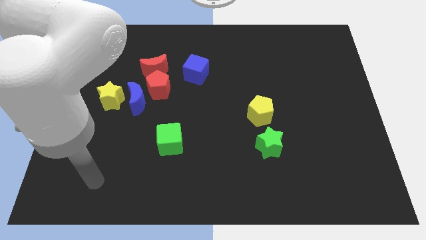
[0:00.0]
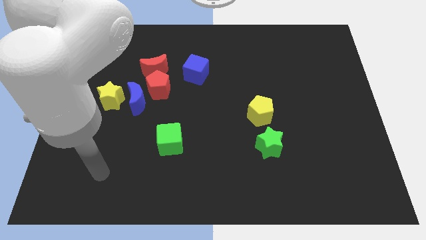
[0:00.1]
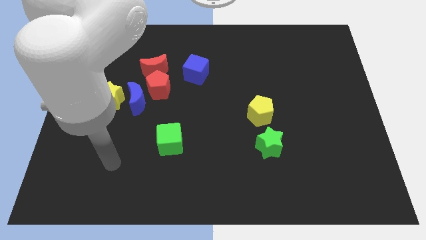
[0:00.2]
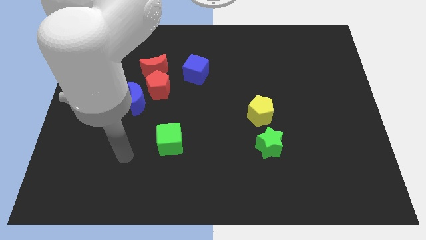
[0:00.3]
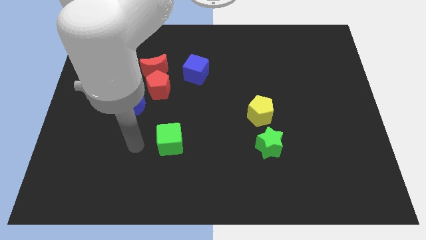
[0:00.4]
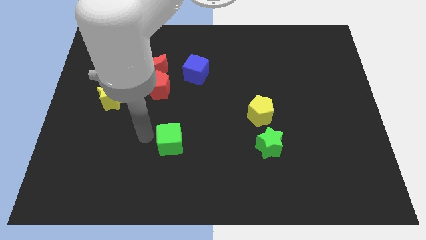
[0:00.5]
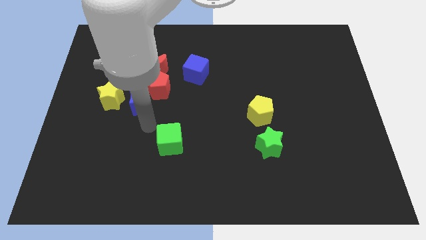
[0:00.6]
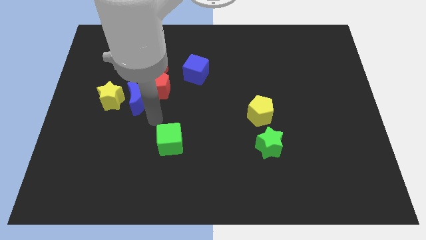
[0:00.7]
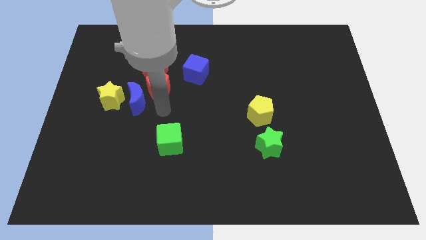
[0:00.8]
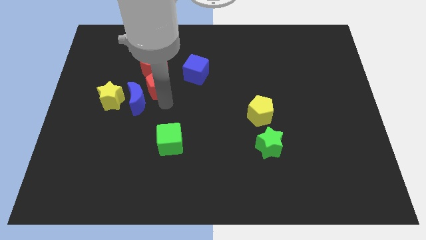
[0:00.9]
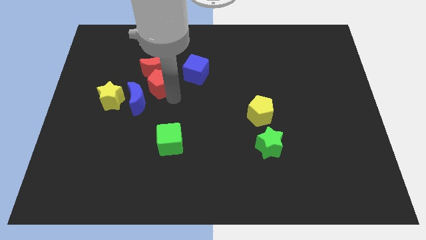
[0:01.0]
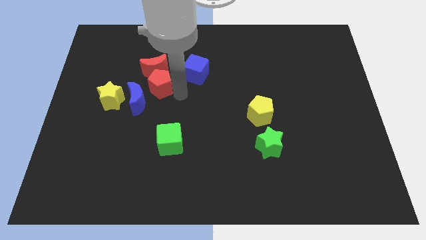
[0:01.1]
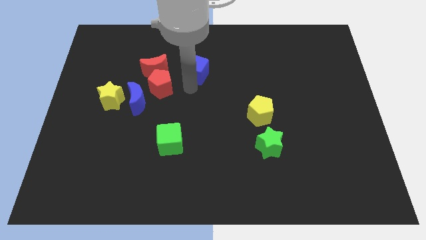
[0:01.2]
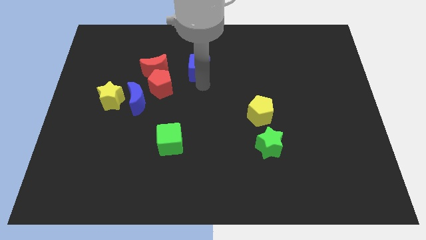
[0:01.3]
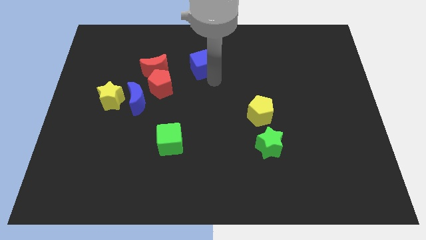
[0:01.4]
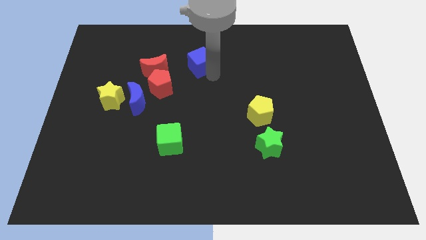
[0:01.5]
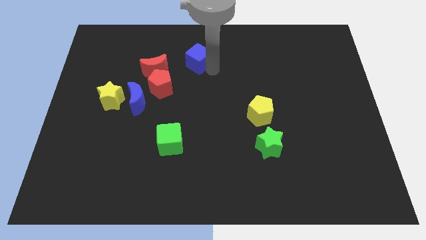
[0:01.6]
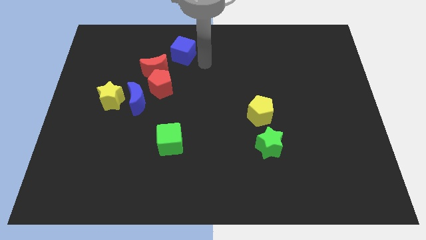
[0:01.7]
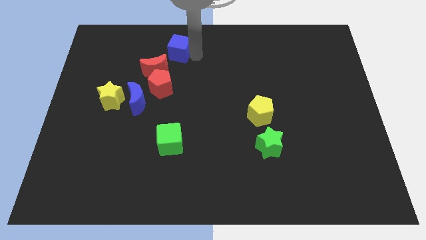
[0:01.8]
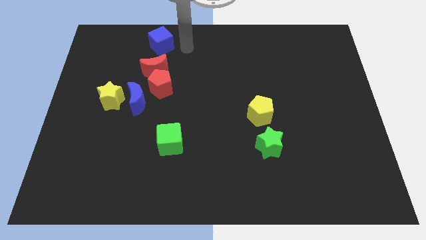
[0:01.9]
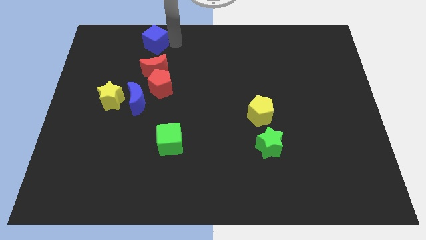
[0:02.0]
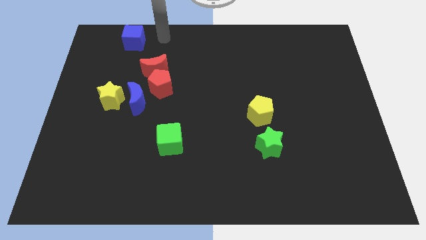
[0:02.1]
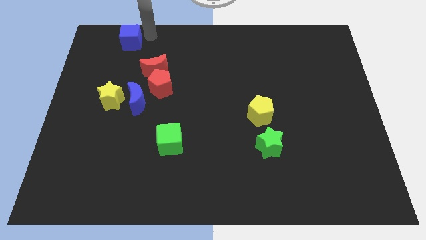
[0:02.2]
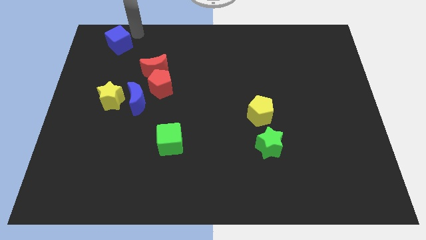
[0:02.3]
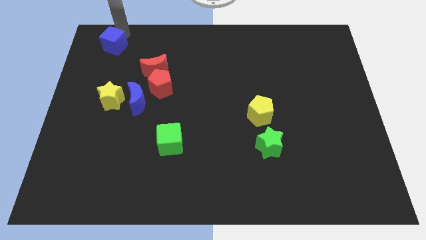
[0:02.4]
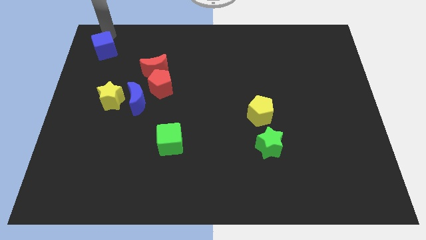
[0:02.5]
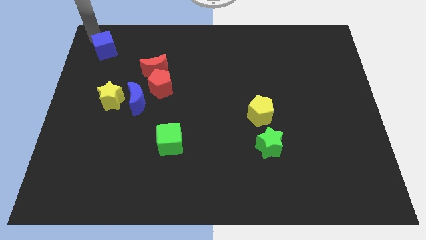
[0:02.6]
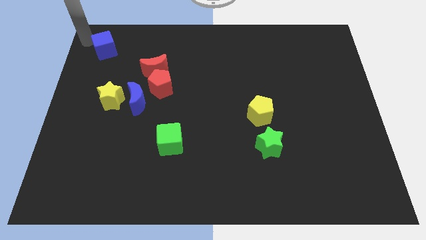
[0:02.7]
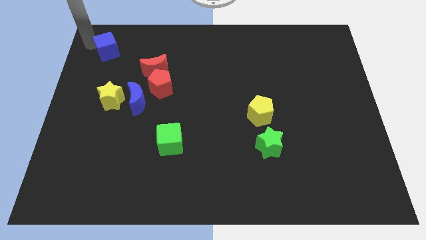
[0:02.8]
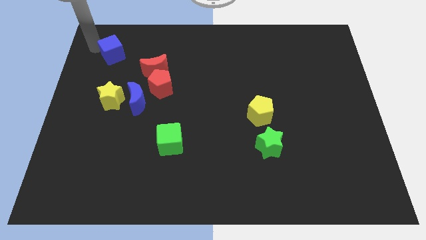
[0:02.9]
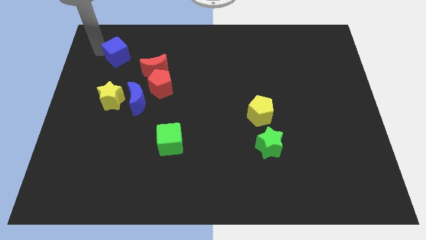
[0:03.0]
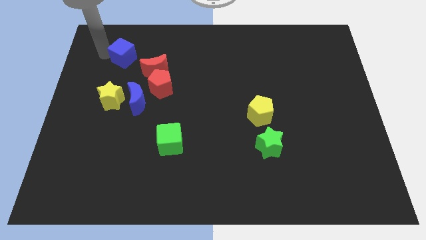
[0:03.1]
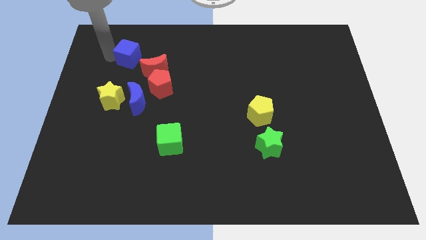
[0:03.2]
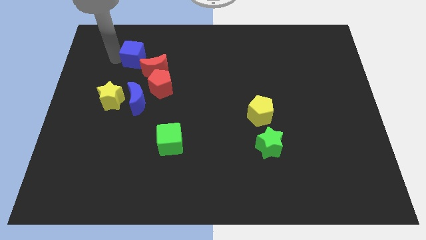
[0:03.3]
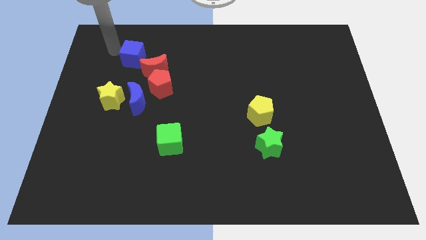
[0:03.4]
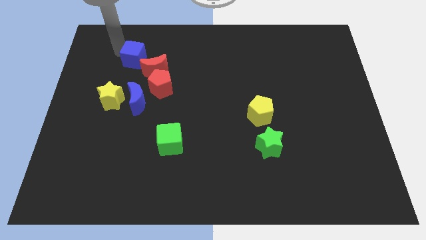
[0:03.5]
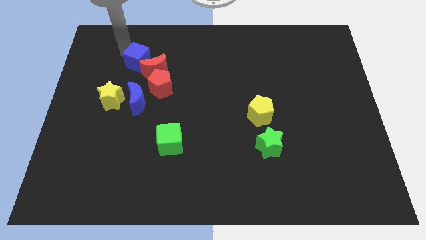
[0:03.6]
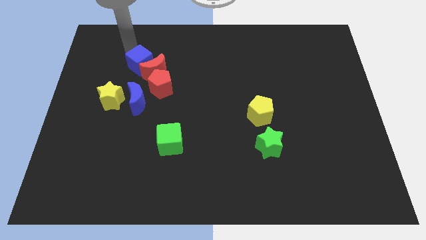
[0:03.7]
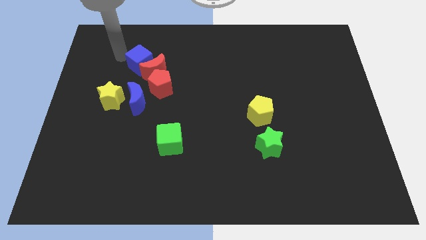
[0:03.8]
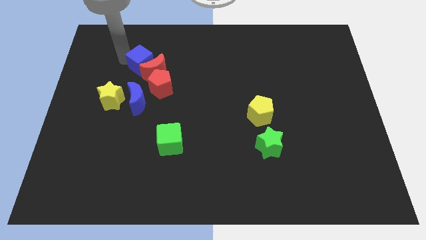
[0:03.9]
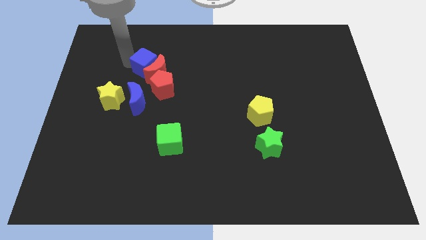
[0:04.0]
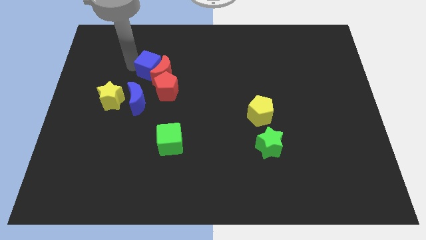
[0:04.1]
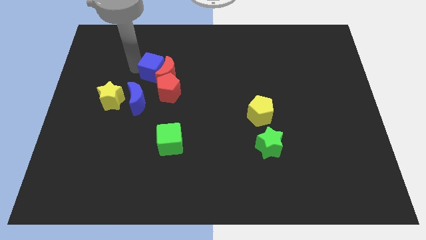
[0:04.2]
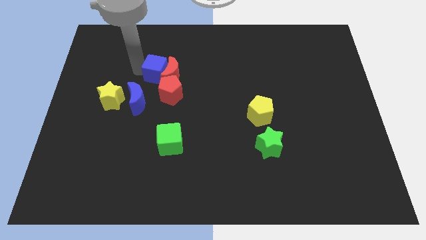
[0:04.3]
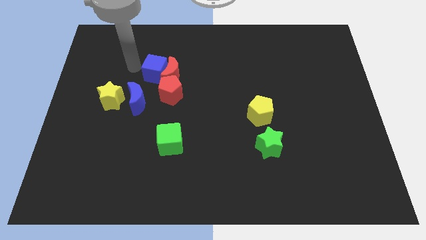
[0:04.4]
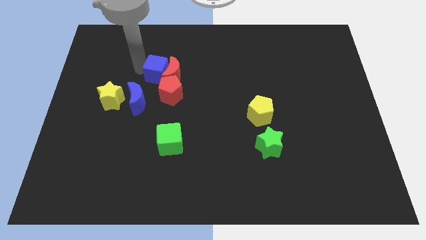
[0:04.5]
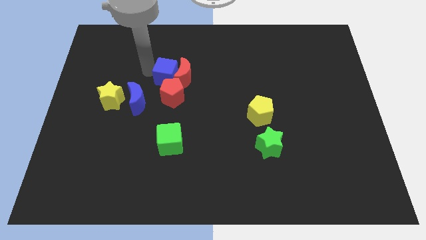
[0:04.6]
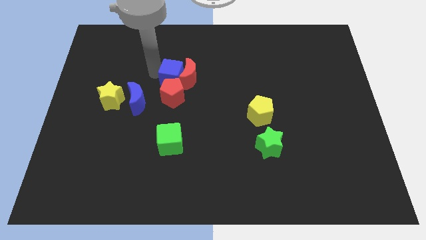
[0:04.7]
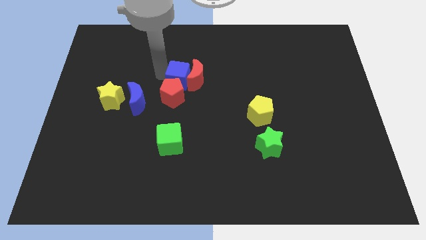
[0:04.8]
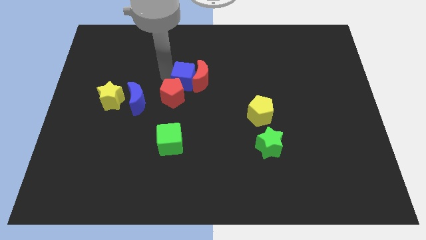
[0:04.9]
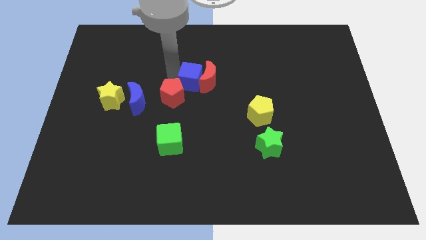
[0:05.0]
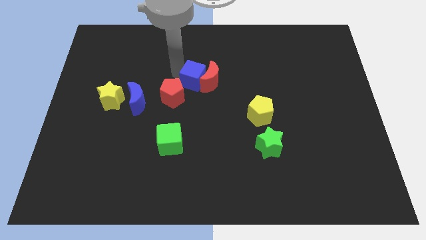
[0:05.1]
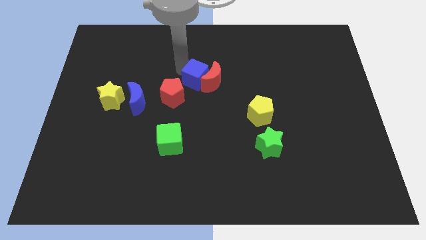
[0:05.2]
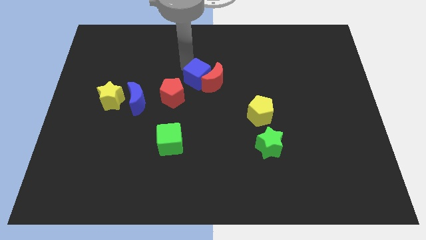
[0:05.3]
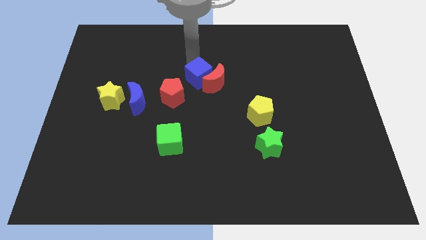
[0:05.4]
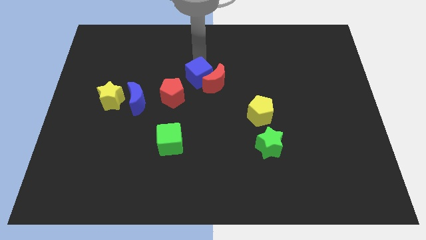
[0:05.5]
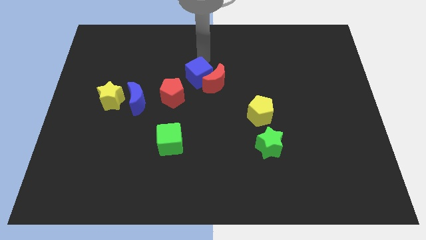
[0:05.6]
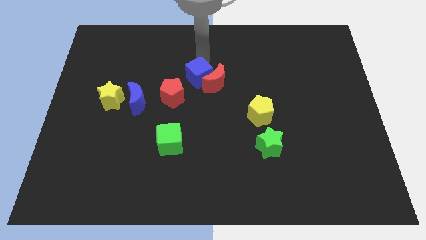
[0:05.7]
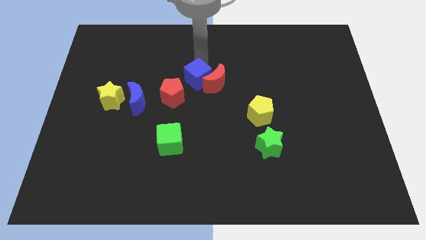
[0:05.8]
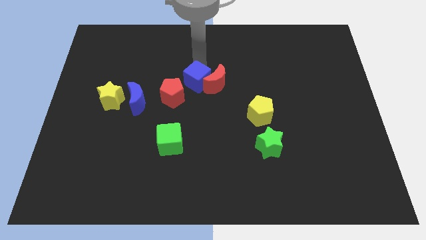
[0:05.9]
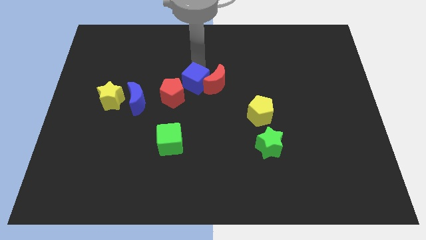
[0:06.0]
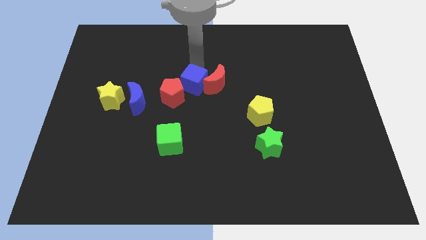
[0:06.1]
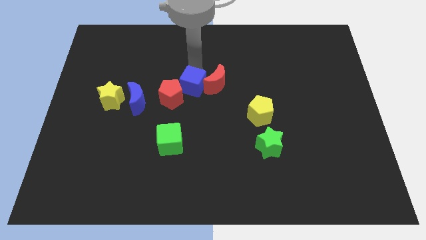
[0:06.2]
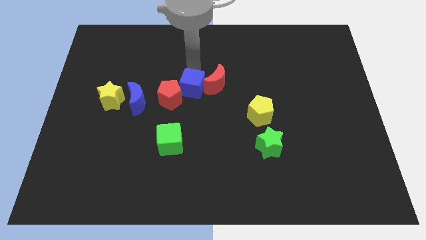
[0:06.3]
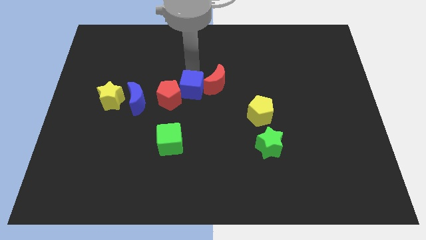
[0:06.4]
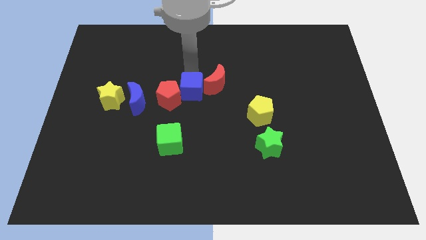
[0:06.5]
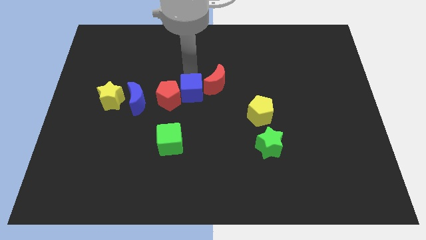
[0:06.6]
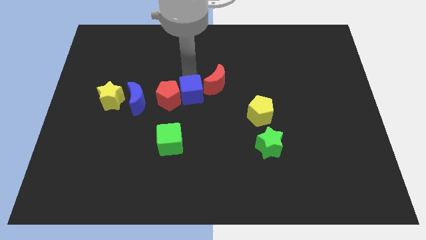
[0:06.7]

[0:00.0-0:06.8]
slightly slide the blue cube down

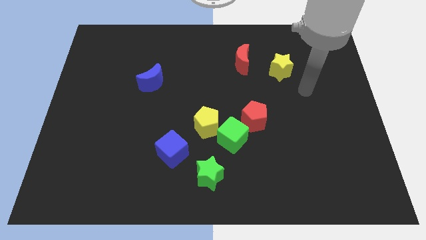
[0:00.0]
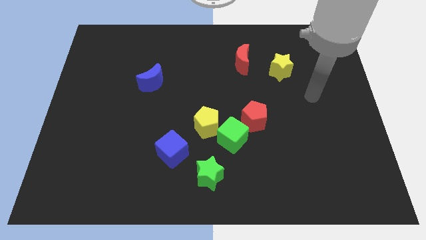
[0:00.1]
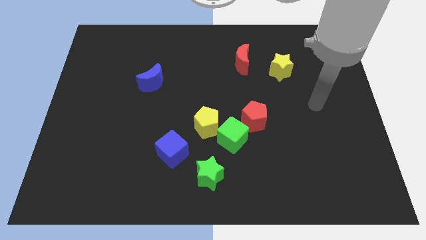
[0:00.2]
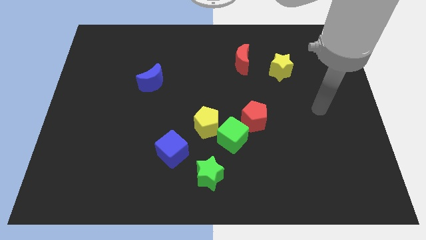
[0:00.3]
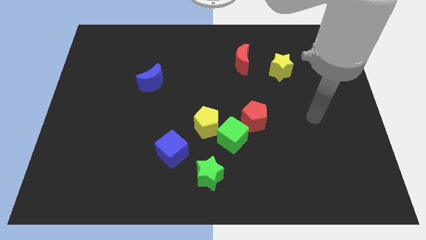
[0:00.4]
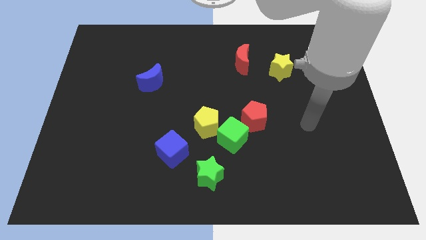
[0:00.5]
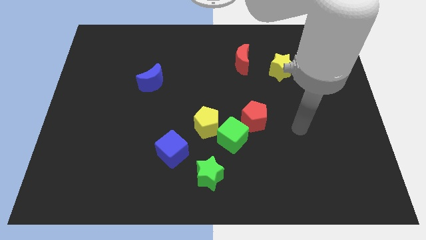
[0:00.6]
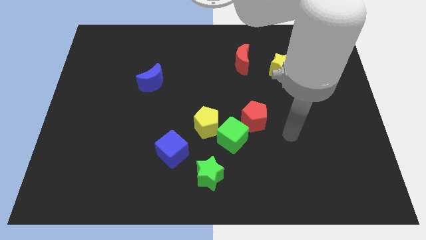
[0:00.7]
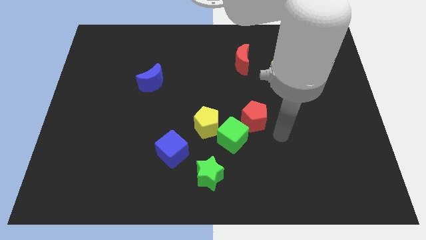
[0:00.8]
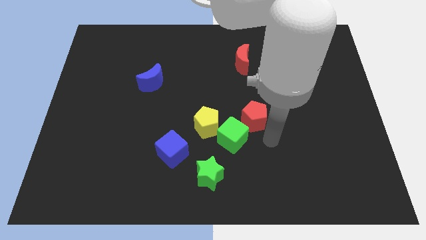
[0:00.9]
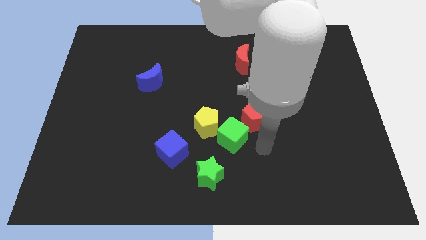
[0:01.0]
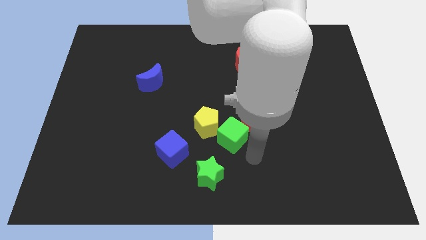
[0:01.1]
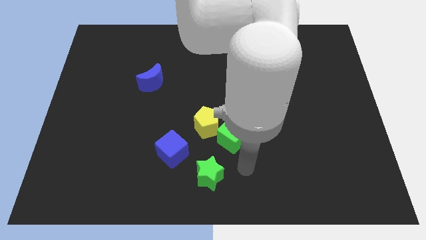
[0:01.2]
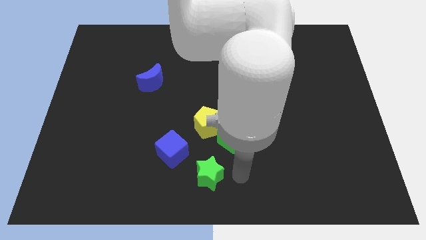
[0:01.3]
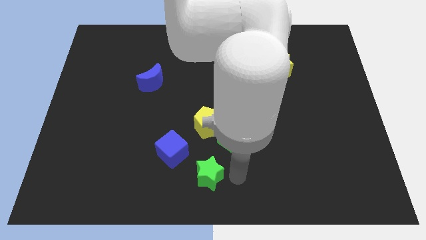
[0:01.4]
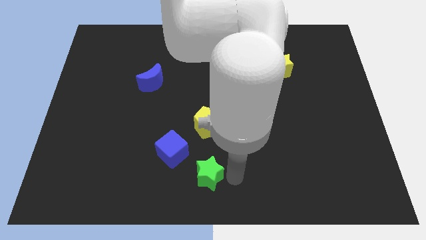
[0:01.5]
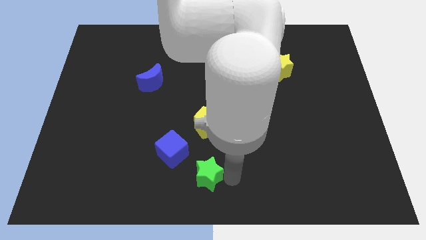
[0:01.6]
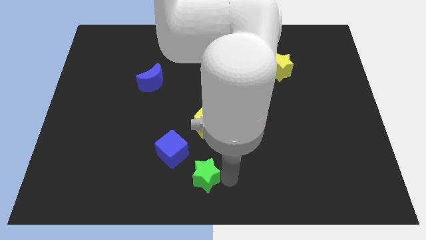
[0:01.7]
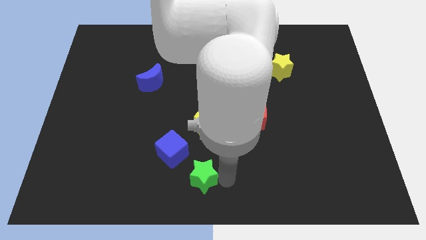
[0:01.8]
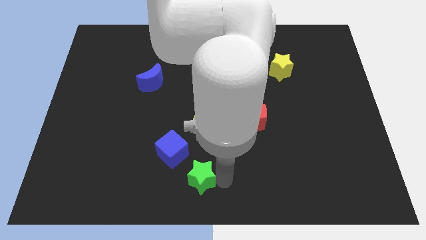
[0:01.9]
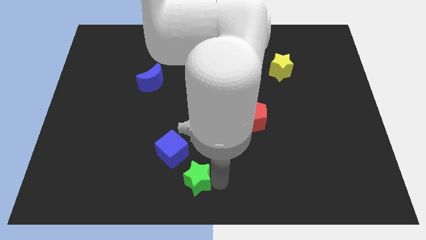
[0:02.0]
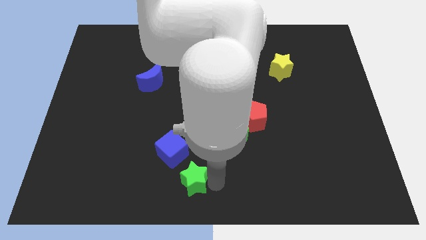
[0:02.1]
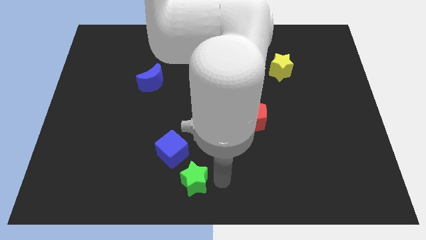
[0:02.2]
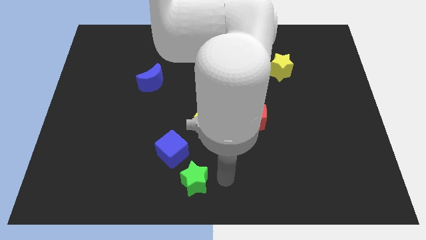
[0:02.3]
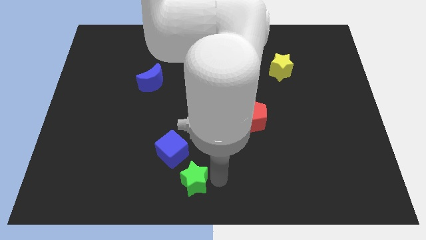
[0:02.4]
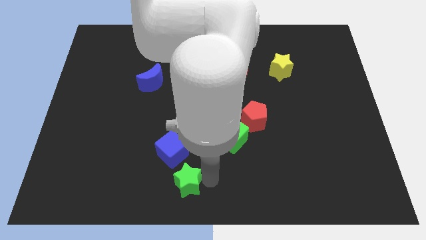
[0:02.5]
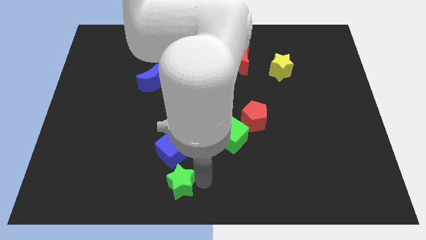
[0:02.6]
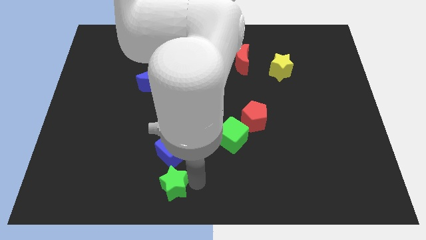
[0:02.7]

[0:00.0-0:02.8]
slightly slide the green star left
